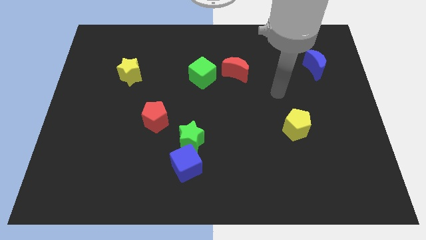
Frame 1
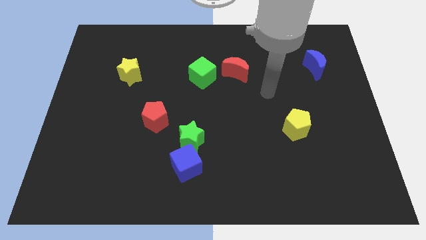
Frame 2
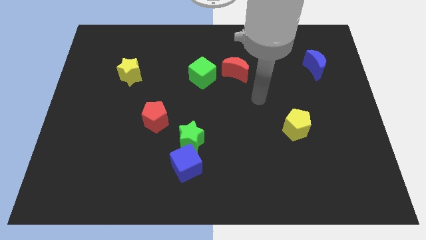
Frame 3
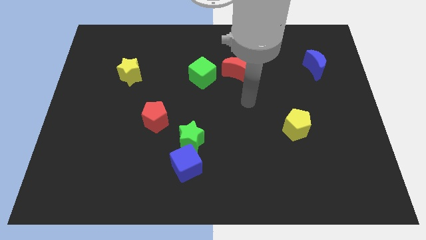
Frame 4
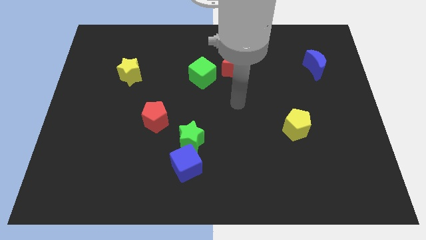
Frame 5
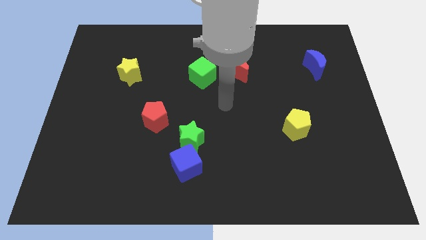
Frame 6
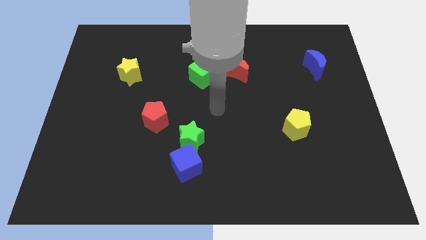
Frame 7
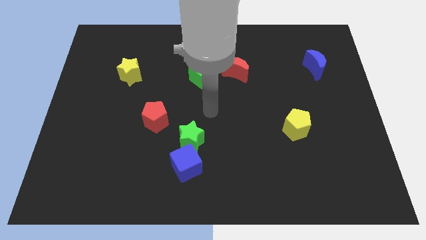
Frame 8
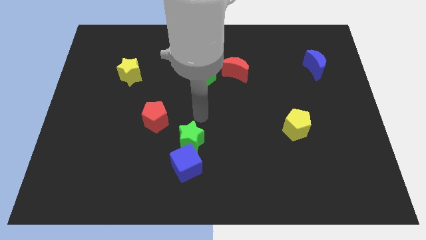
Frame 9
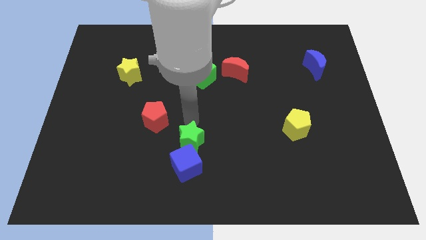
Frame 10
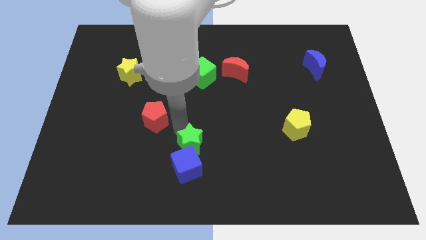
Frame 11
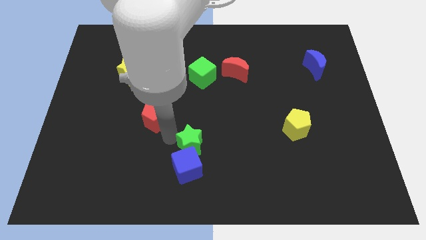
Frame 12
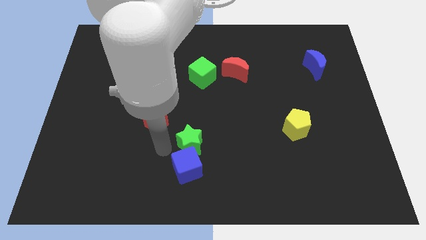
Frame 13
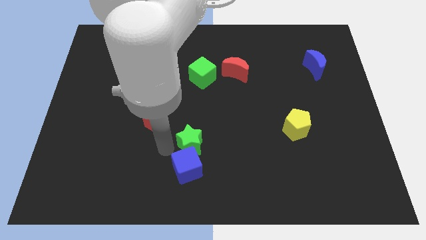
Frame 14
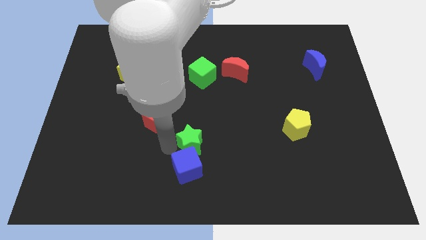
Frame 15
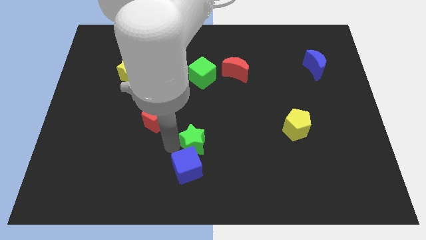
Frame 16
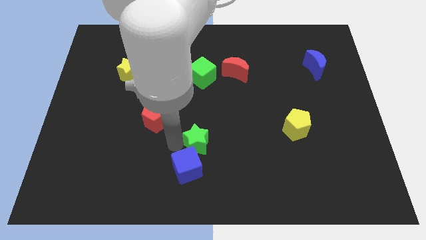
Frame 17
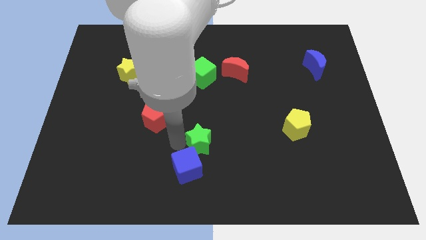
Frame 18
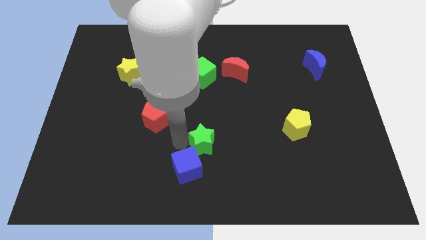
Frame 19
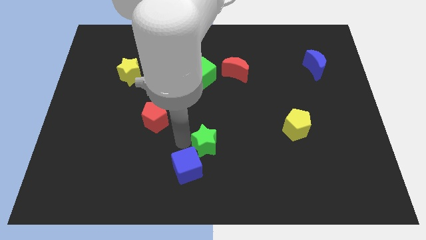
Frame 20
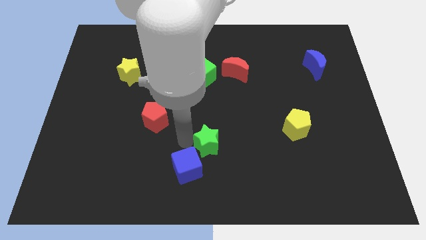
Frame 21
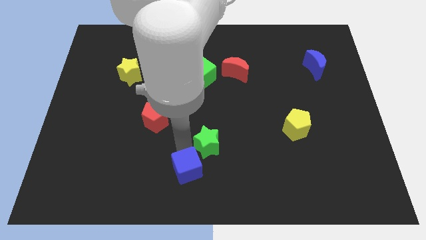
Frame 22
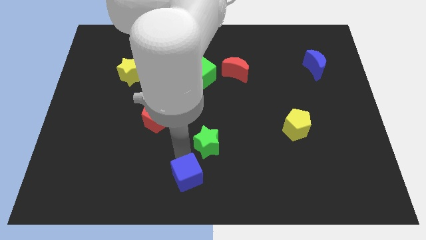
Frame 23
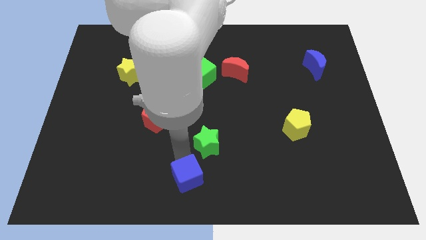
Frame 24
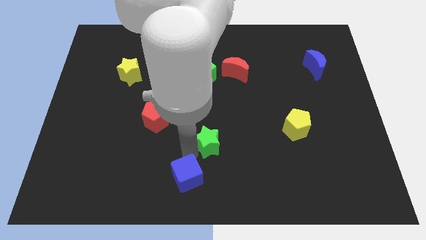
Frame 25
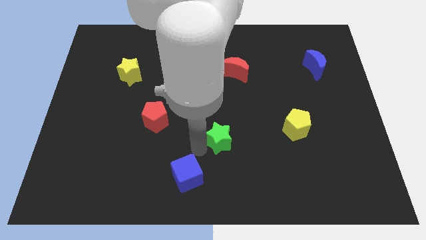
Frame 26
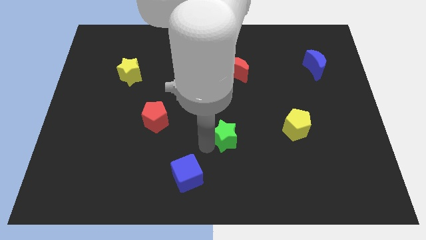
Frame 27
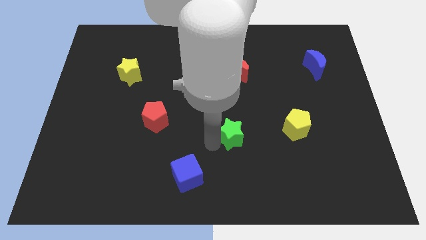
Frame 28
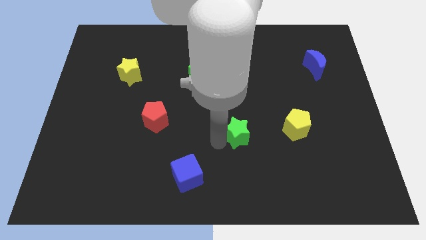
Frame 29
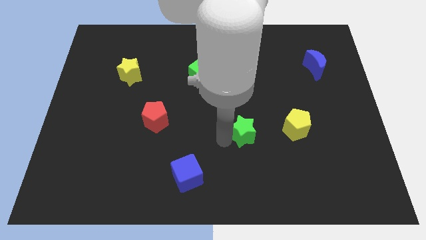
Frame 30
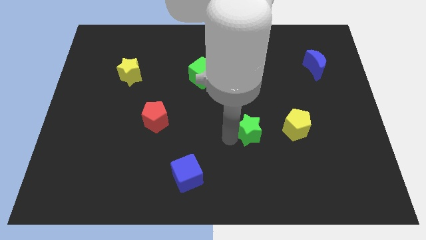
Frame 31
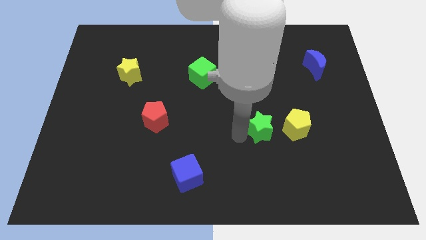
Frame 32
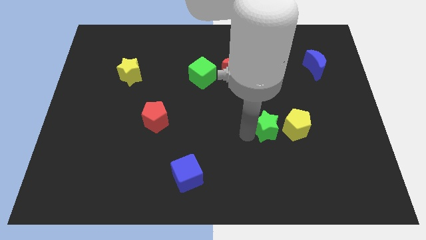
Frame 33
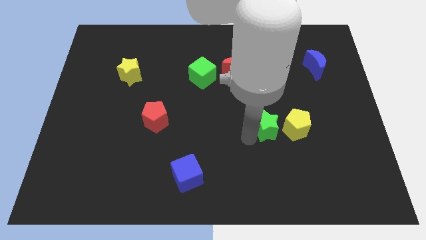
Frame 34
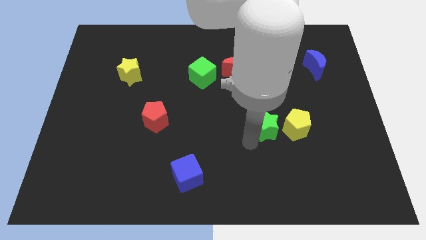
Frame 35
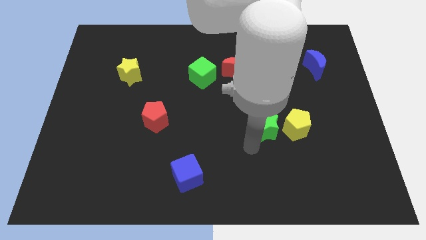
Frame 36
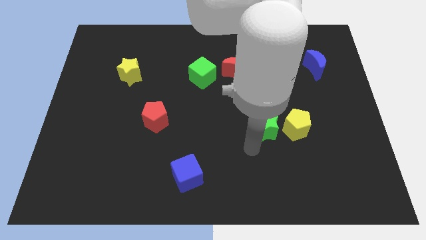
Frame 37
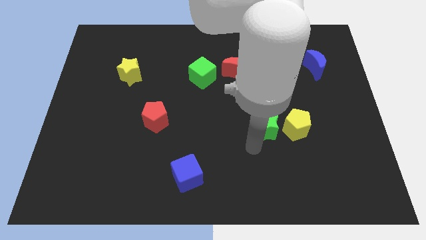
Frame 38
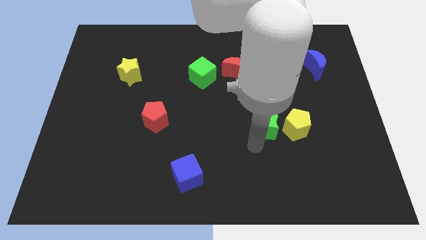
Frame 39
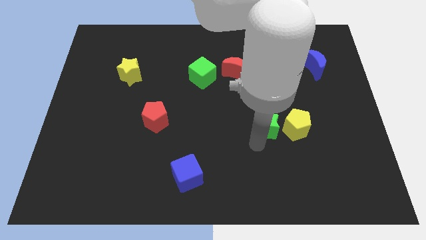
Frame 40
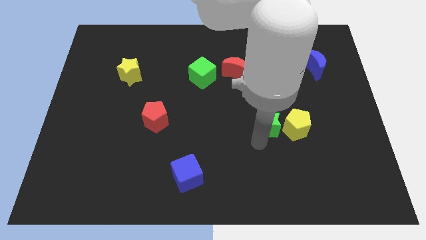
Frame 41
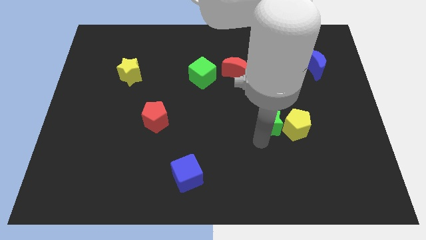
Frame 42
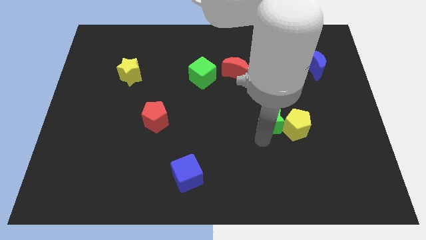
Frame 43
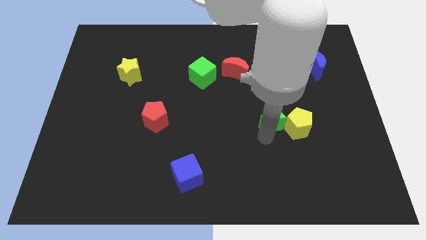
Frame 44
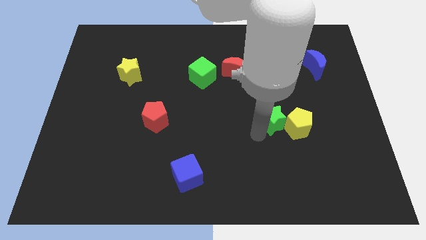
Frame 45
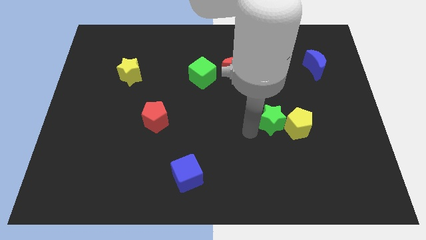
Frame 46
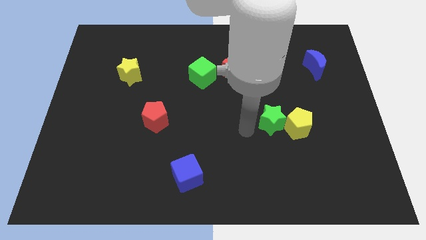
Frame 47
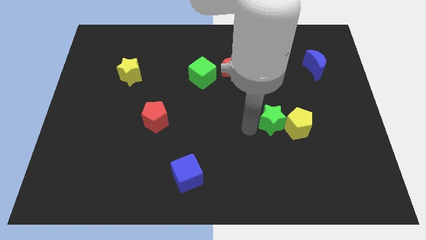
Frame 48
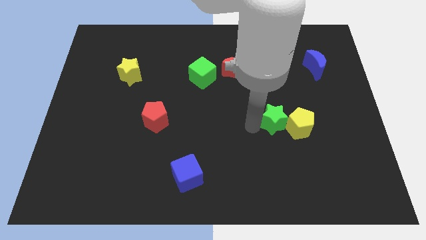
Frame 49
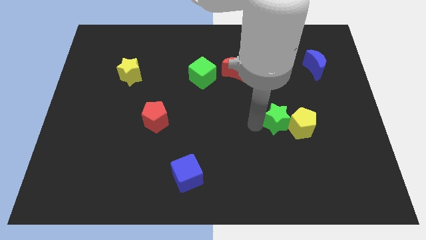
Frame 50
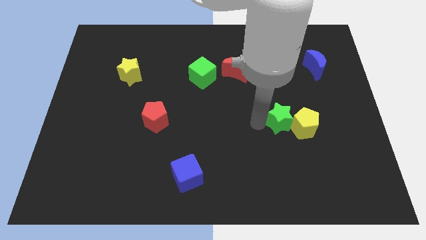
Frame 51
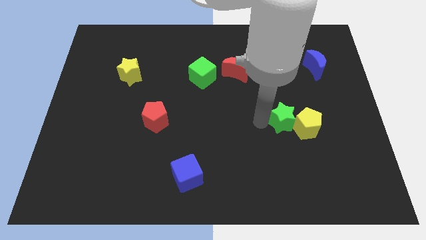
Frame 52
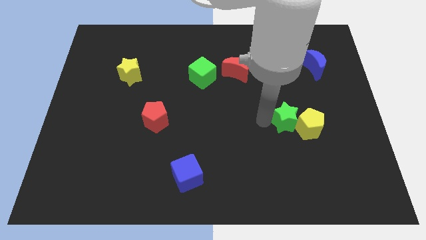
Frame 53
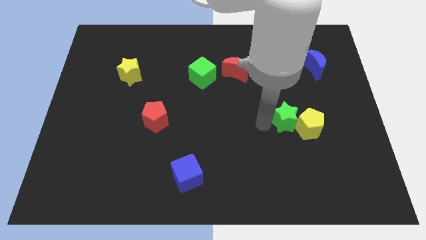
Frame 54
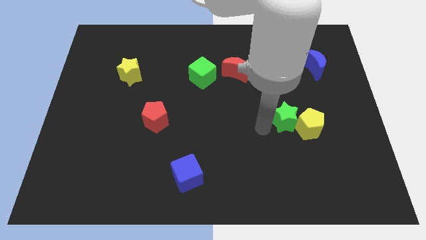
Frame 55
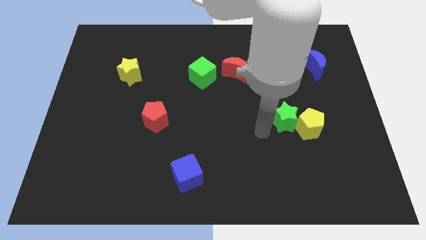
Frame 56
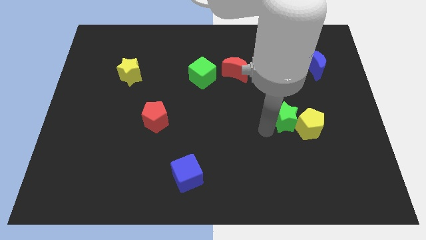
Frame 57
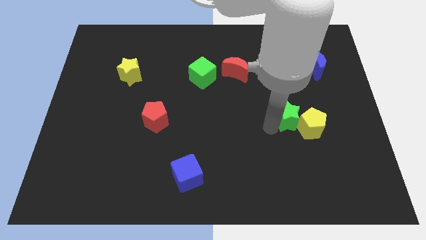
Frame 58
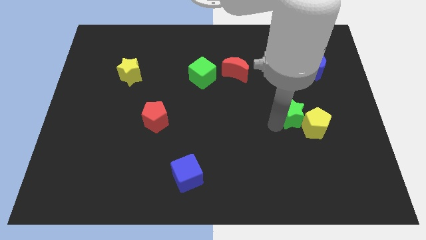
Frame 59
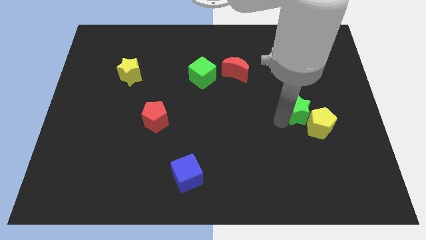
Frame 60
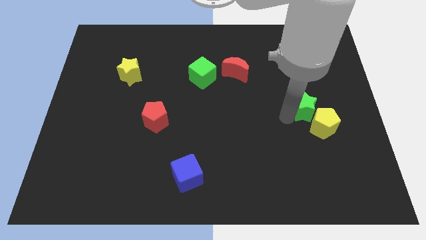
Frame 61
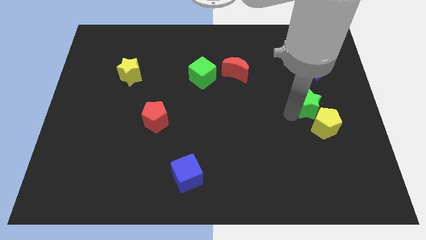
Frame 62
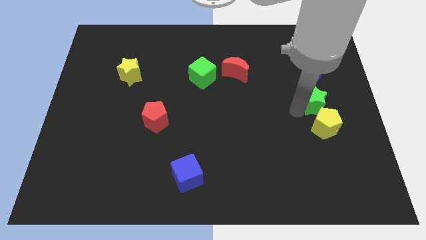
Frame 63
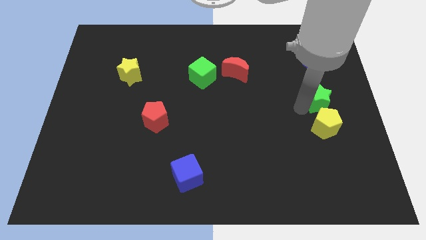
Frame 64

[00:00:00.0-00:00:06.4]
put the green star to the right side
